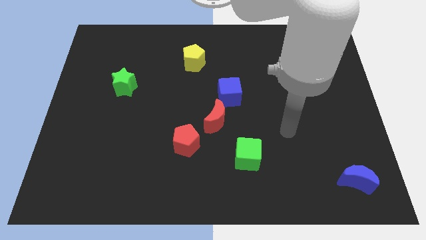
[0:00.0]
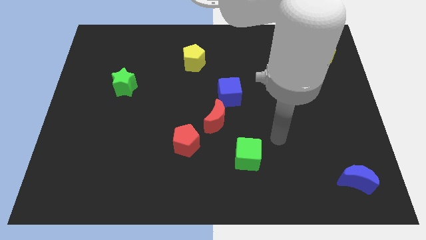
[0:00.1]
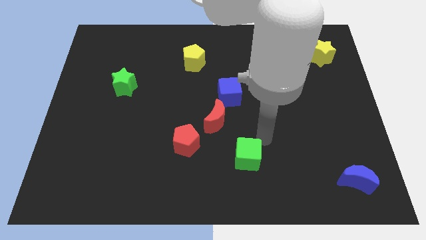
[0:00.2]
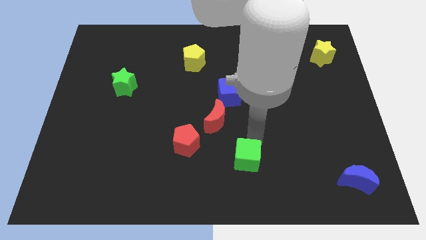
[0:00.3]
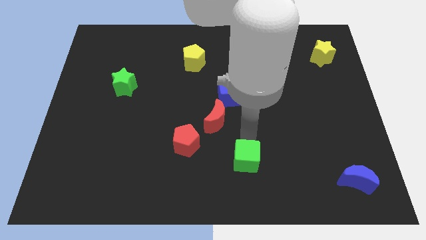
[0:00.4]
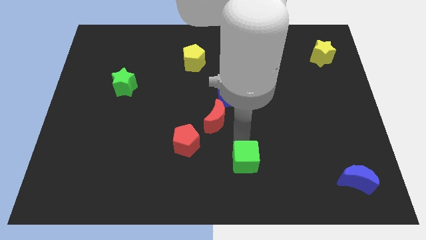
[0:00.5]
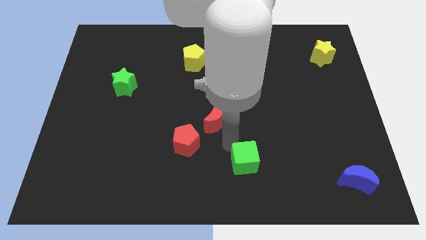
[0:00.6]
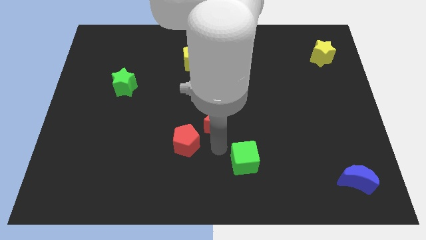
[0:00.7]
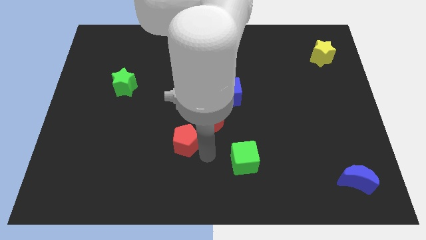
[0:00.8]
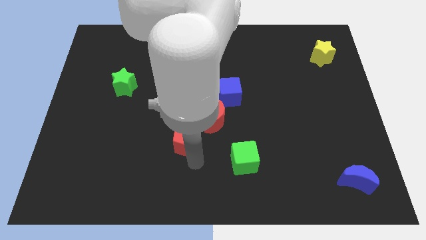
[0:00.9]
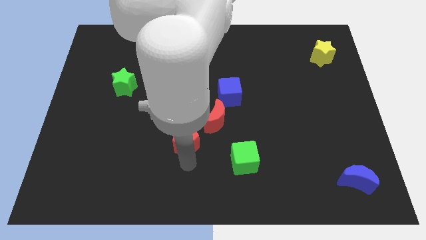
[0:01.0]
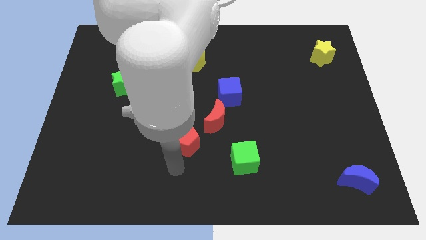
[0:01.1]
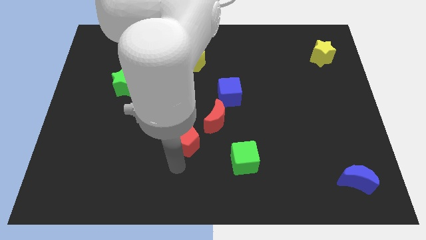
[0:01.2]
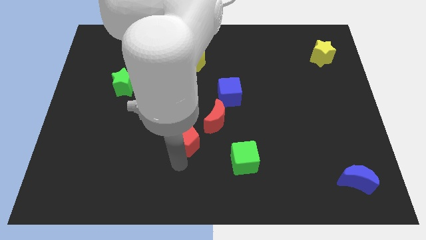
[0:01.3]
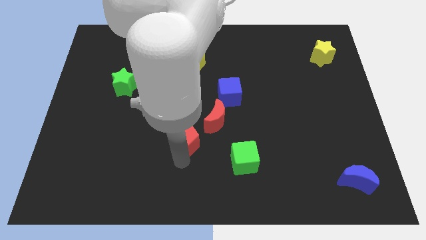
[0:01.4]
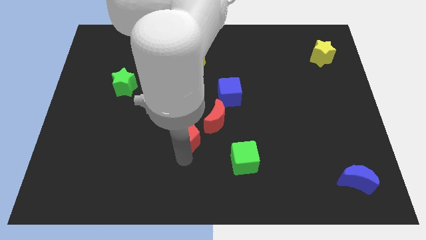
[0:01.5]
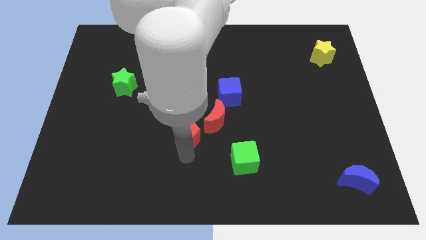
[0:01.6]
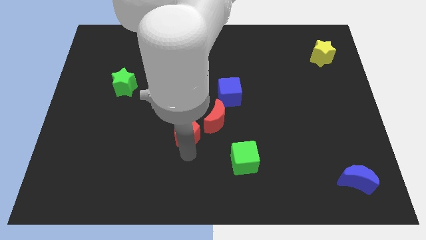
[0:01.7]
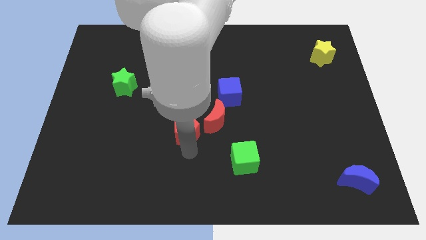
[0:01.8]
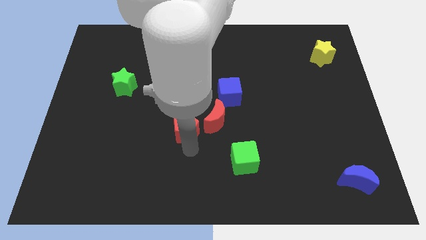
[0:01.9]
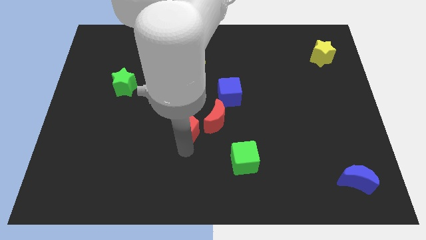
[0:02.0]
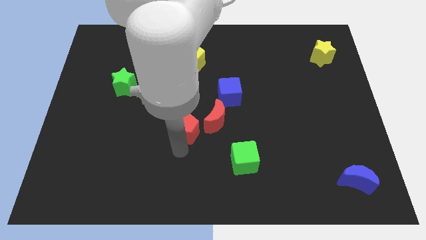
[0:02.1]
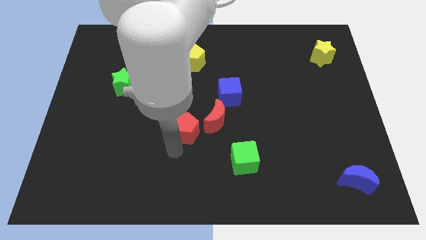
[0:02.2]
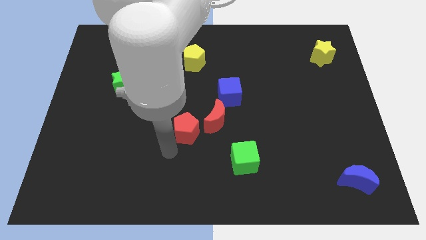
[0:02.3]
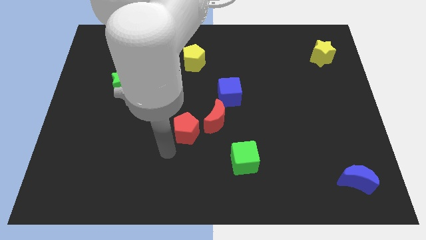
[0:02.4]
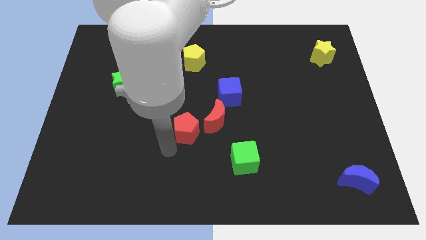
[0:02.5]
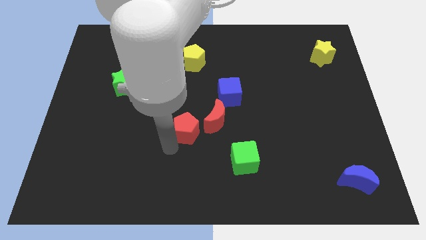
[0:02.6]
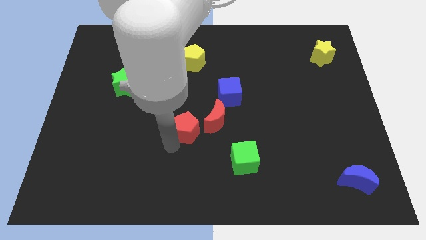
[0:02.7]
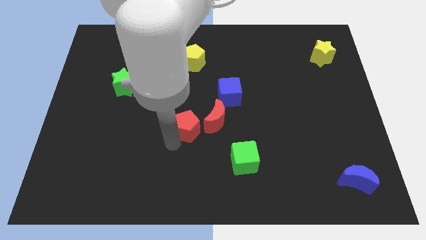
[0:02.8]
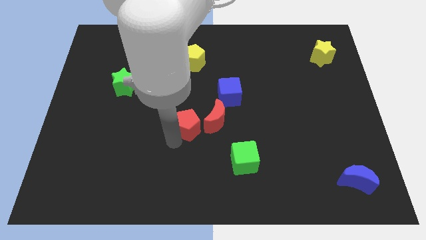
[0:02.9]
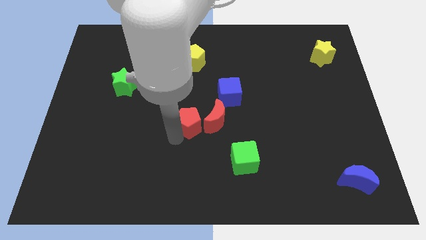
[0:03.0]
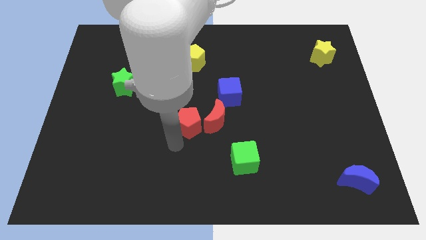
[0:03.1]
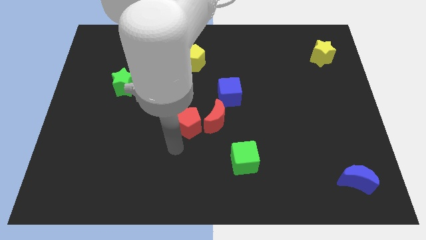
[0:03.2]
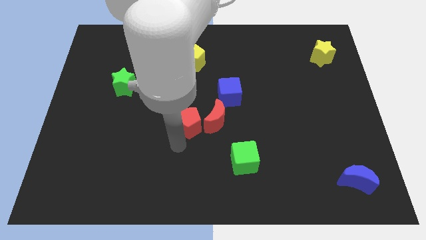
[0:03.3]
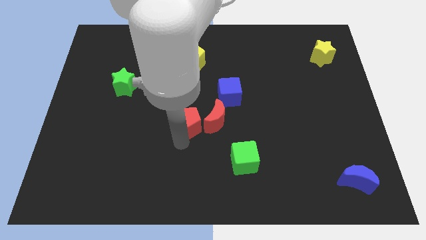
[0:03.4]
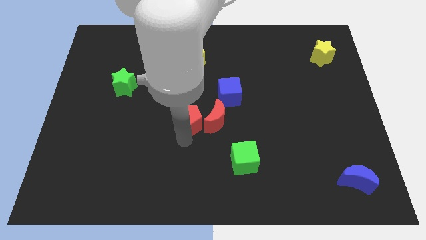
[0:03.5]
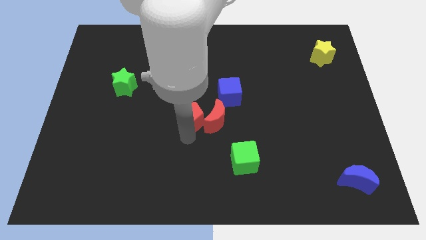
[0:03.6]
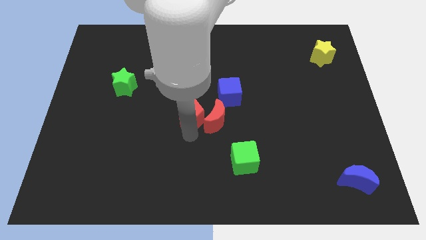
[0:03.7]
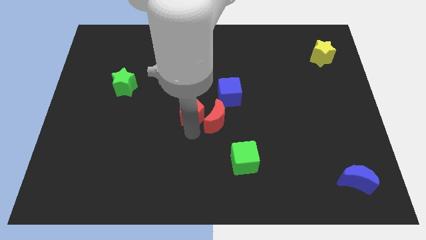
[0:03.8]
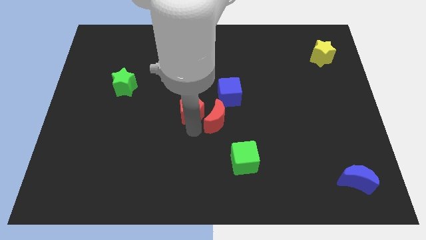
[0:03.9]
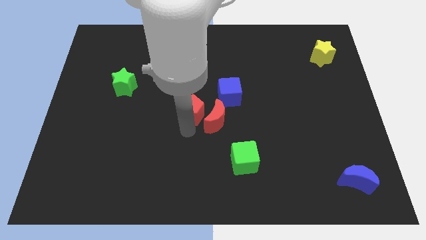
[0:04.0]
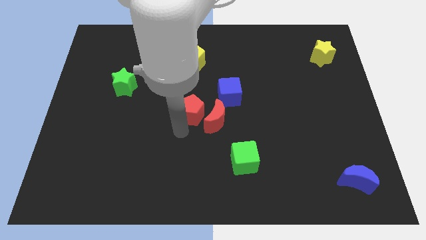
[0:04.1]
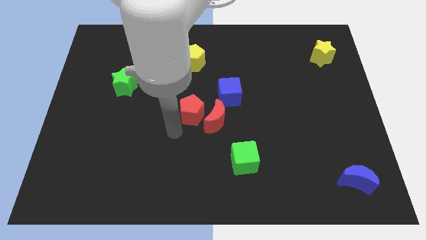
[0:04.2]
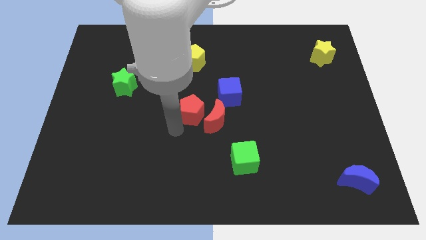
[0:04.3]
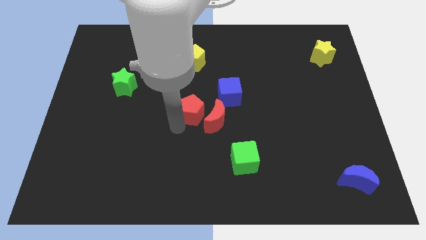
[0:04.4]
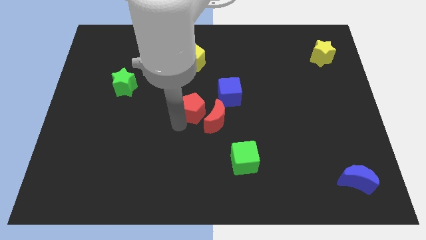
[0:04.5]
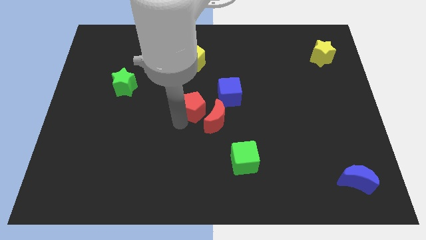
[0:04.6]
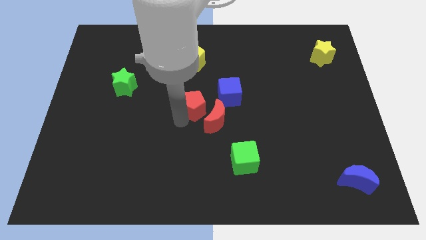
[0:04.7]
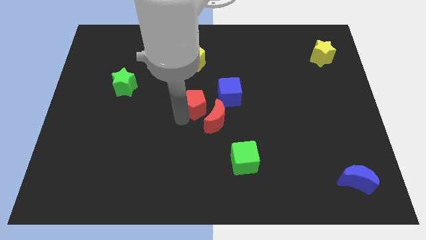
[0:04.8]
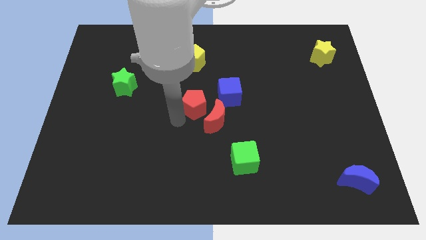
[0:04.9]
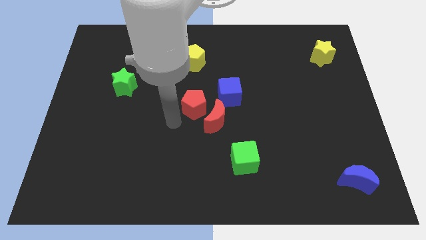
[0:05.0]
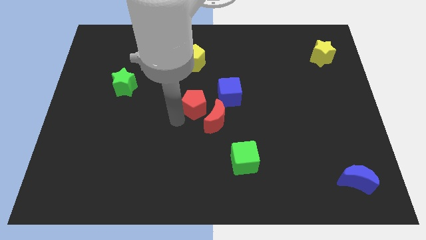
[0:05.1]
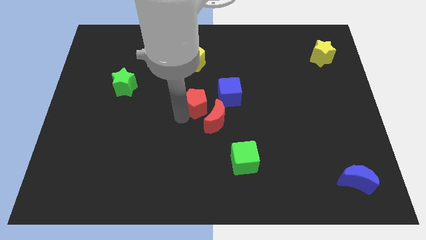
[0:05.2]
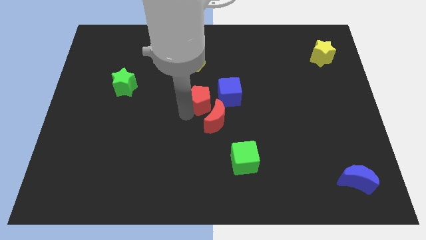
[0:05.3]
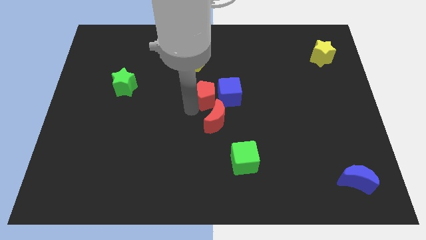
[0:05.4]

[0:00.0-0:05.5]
push the red pentagon next to the blue cube

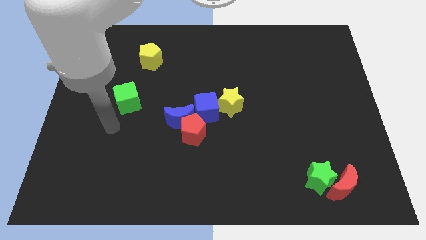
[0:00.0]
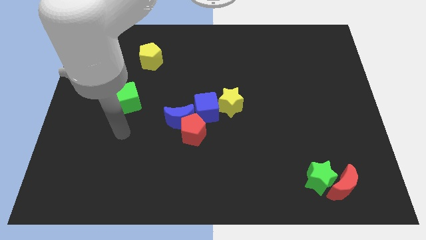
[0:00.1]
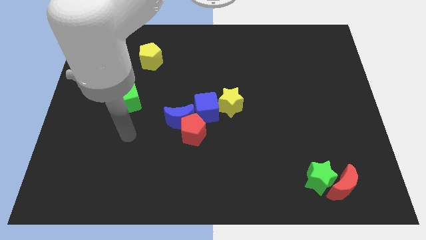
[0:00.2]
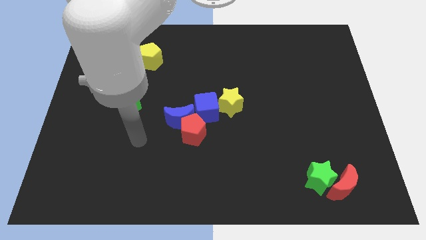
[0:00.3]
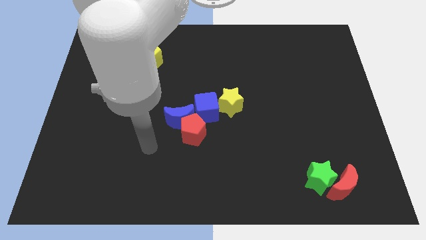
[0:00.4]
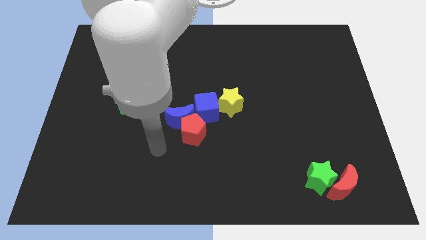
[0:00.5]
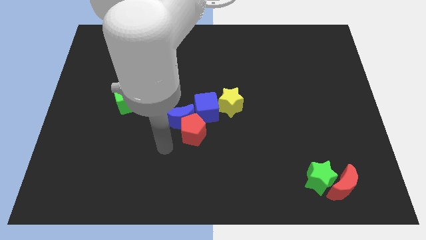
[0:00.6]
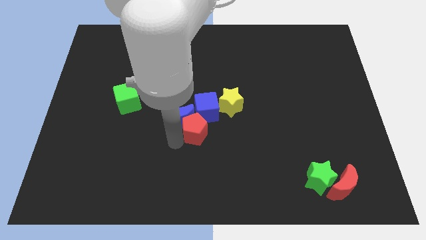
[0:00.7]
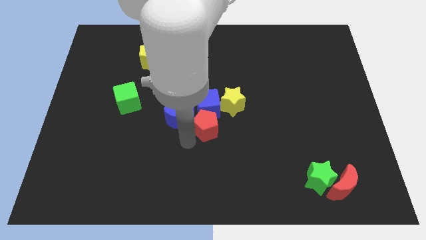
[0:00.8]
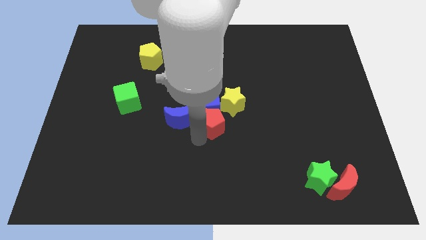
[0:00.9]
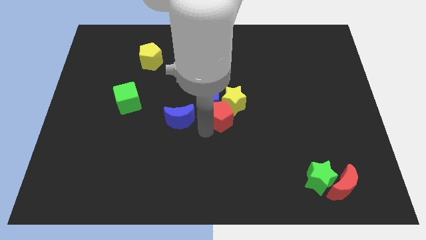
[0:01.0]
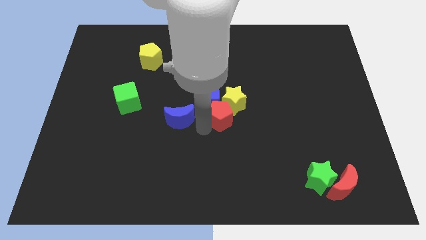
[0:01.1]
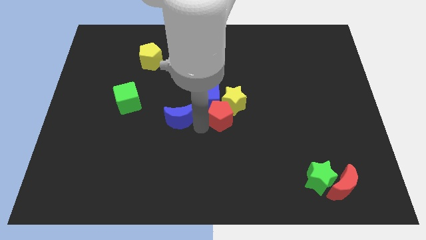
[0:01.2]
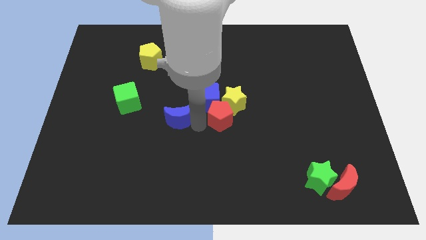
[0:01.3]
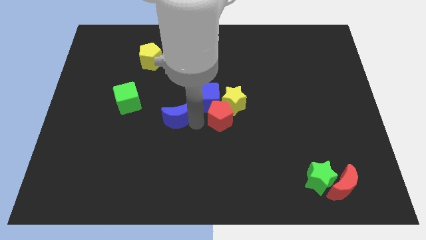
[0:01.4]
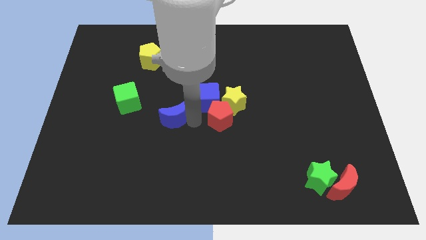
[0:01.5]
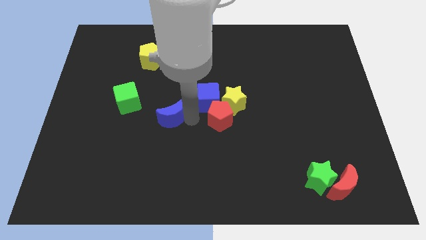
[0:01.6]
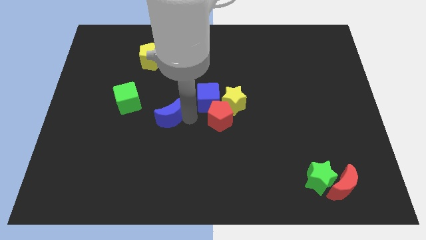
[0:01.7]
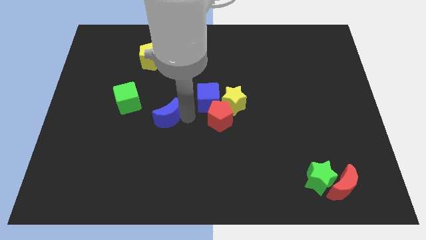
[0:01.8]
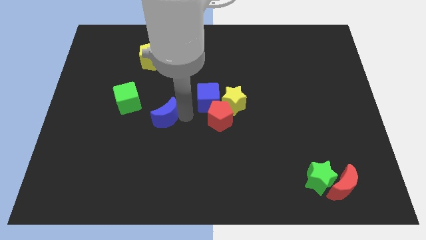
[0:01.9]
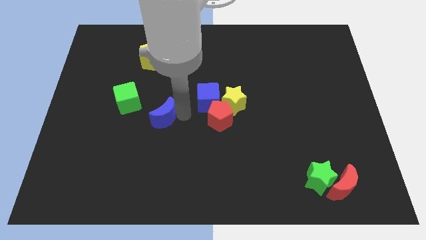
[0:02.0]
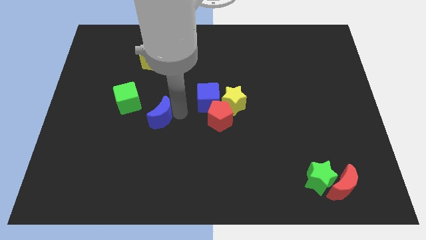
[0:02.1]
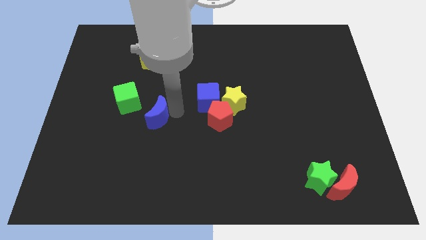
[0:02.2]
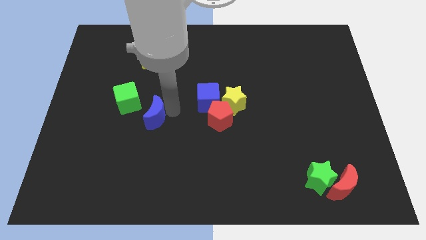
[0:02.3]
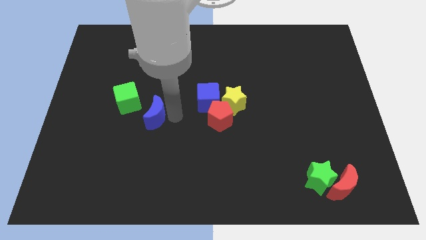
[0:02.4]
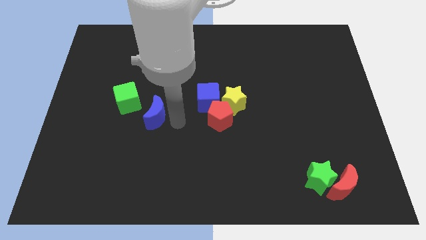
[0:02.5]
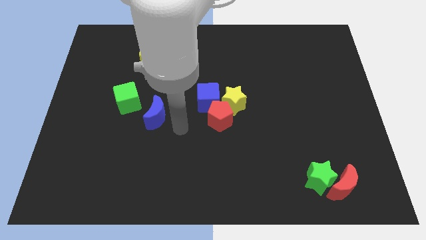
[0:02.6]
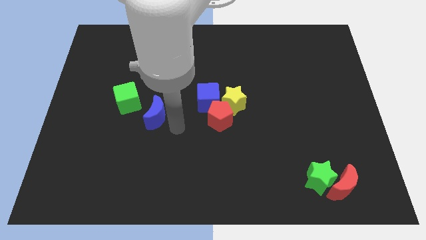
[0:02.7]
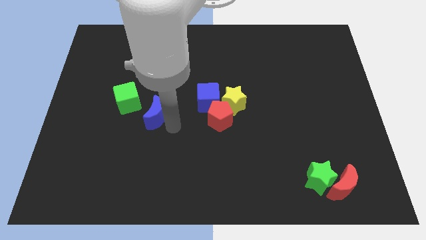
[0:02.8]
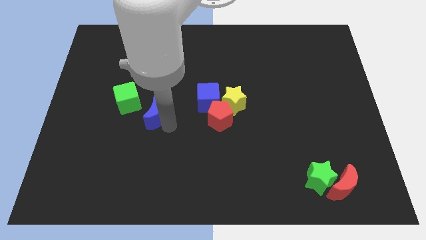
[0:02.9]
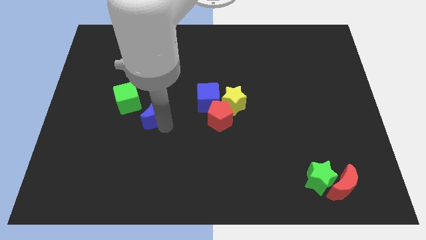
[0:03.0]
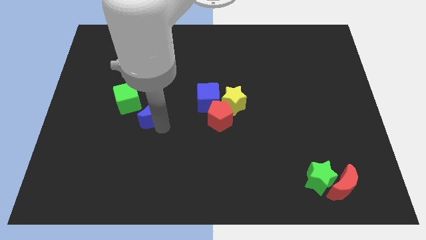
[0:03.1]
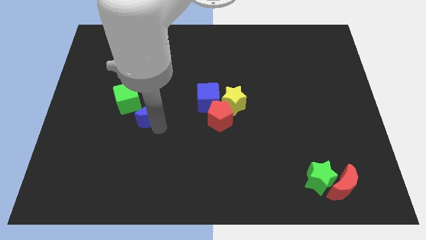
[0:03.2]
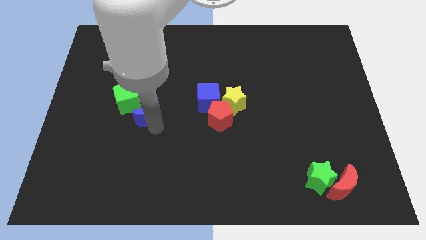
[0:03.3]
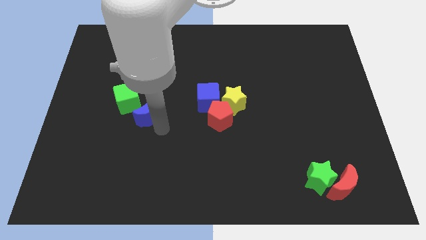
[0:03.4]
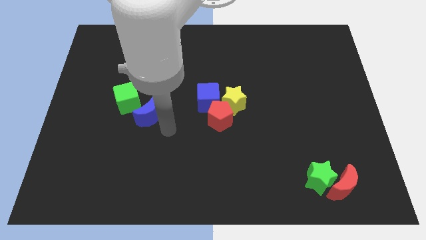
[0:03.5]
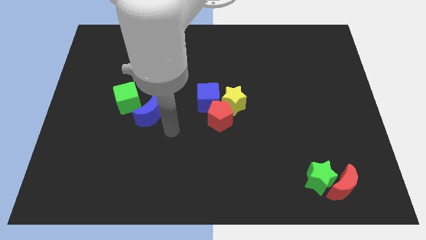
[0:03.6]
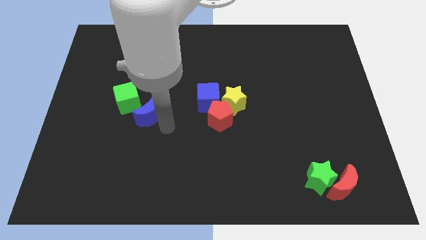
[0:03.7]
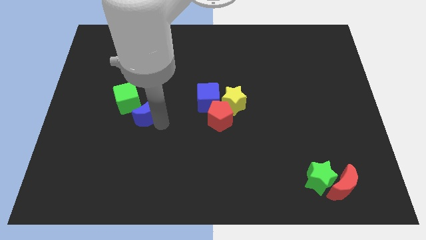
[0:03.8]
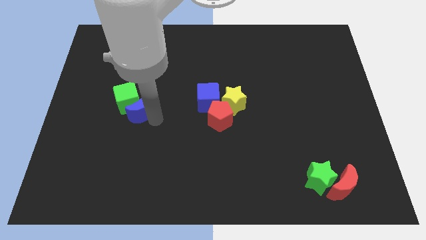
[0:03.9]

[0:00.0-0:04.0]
put the blue moon towards the green cube
